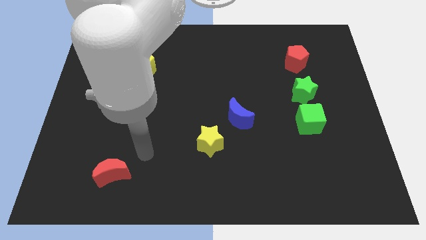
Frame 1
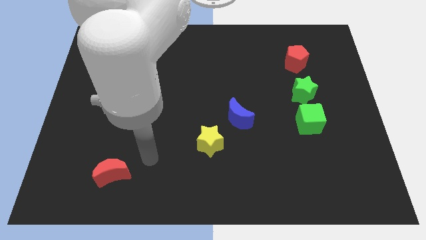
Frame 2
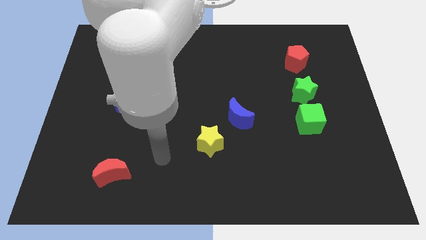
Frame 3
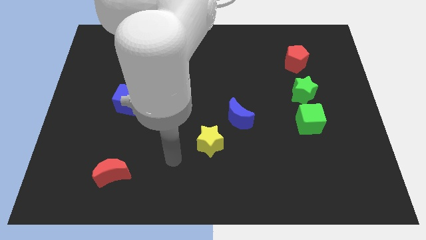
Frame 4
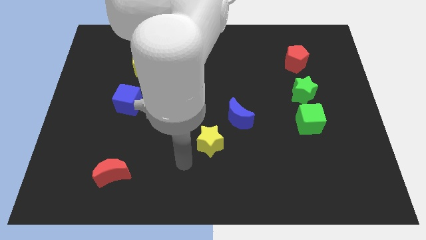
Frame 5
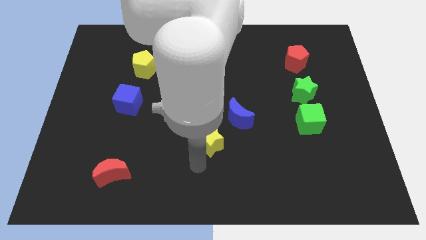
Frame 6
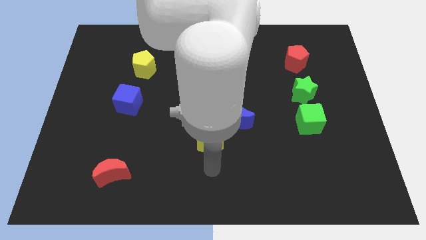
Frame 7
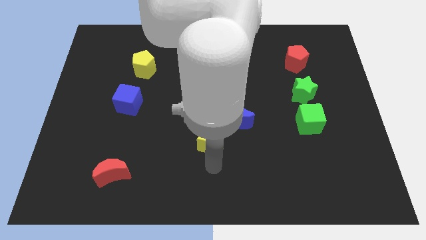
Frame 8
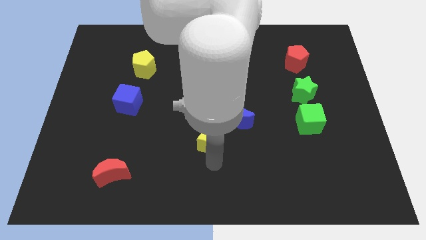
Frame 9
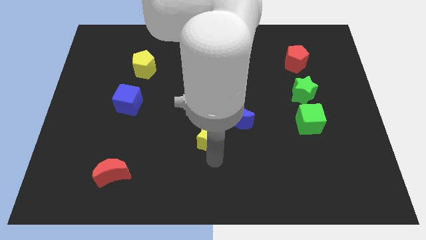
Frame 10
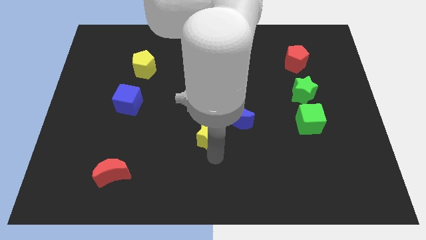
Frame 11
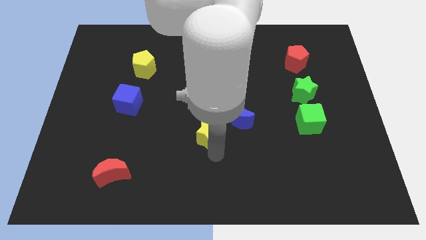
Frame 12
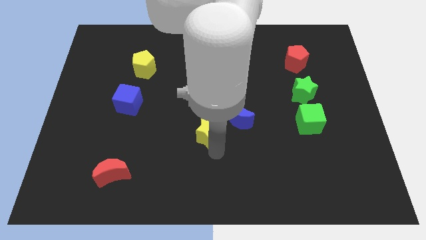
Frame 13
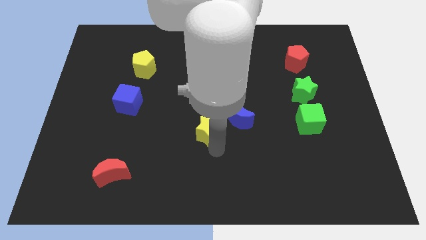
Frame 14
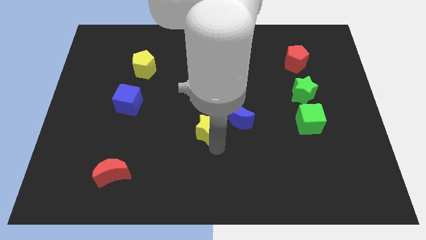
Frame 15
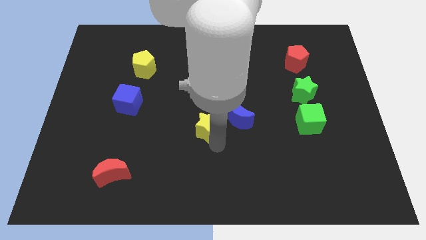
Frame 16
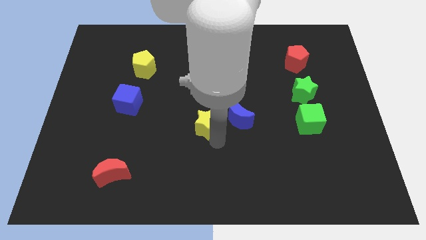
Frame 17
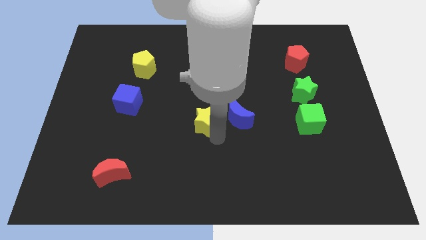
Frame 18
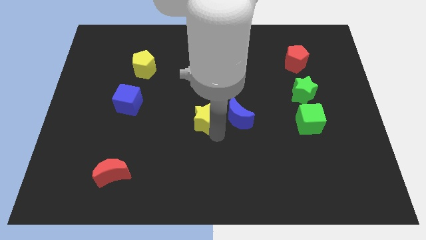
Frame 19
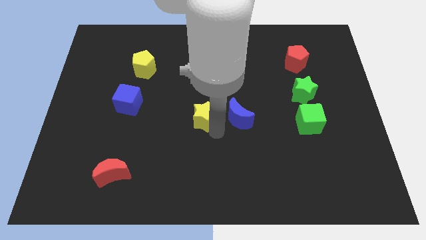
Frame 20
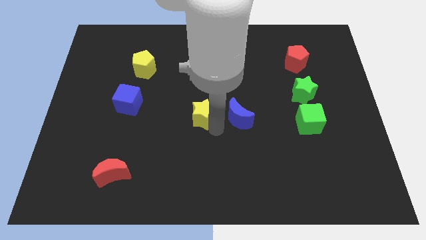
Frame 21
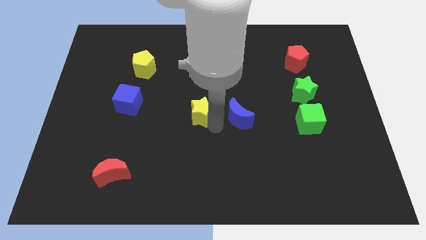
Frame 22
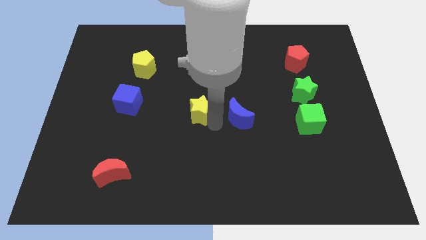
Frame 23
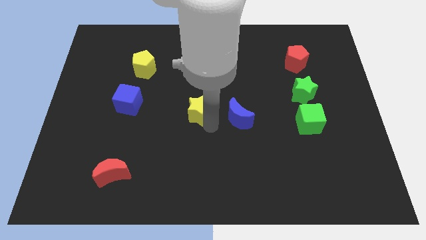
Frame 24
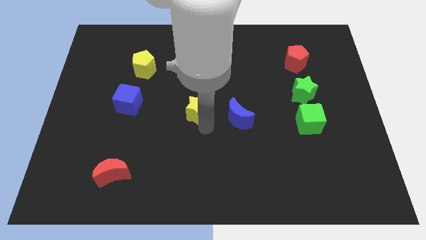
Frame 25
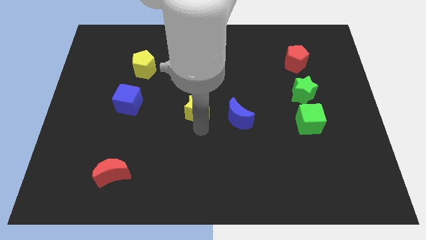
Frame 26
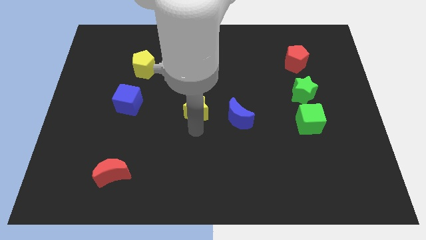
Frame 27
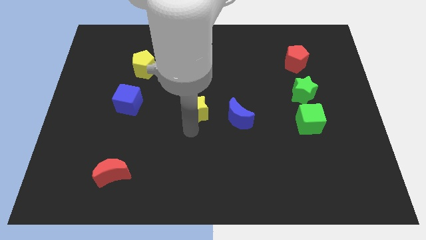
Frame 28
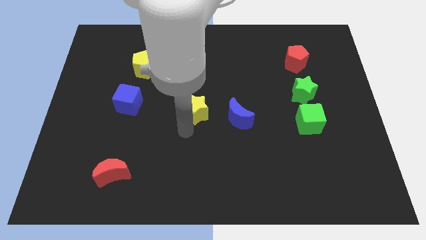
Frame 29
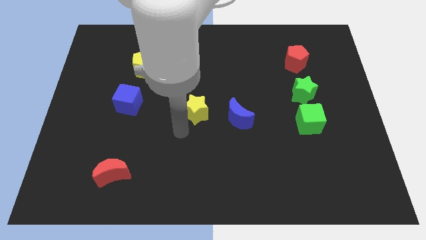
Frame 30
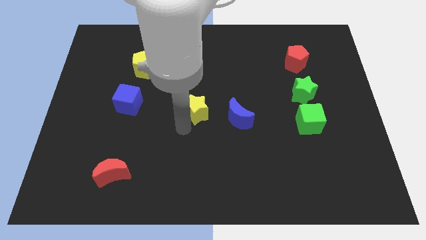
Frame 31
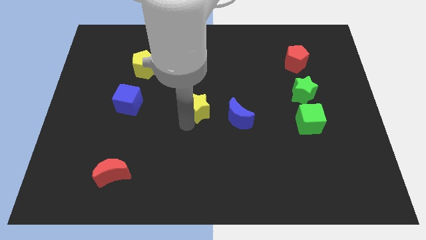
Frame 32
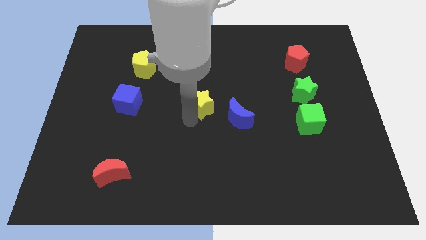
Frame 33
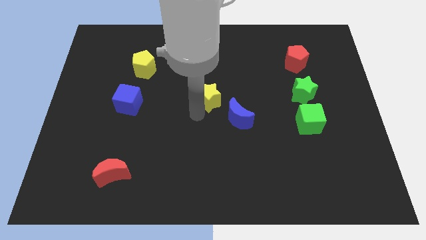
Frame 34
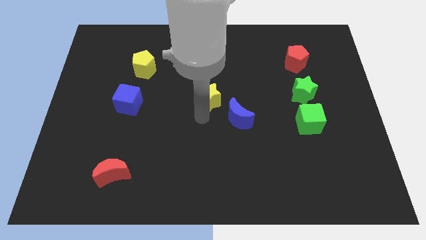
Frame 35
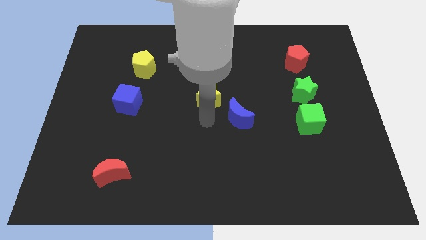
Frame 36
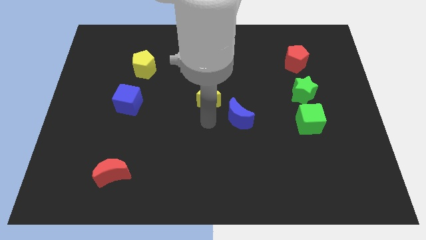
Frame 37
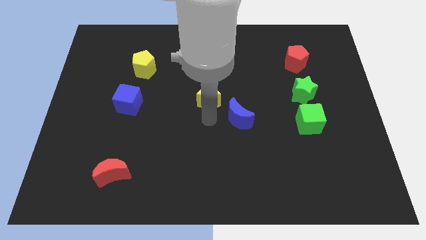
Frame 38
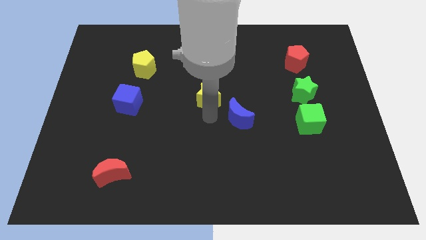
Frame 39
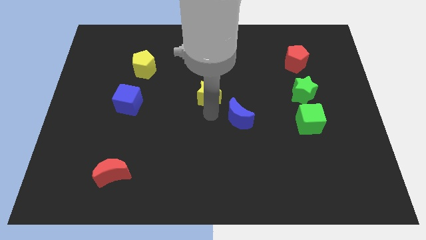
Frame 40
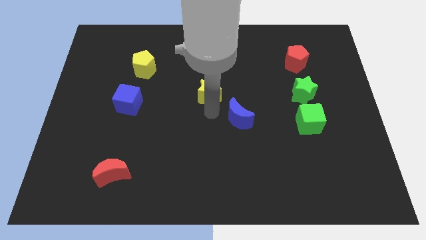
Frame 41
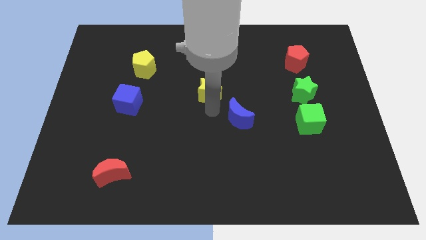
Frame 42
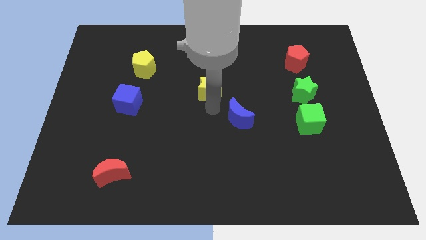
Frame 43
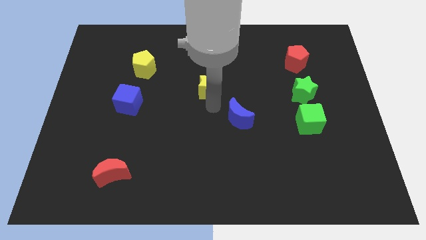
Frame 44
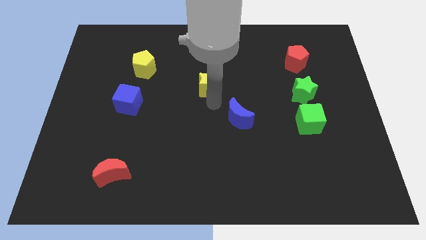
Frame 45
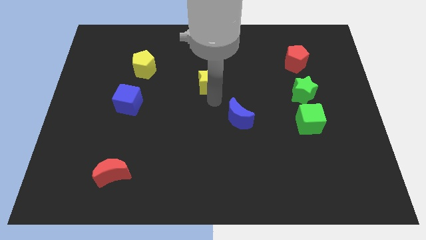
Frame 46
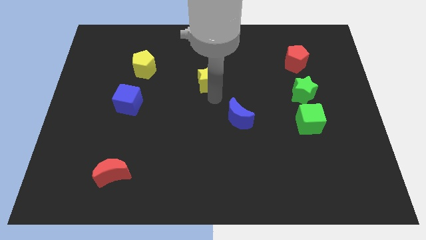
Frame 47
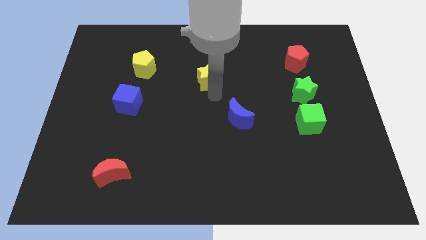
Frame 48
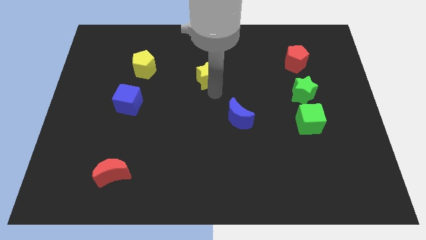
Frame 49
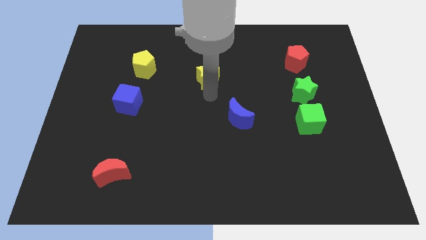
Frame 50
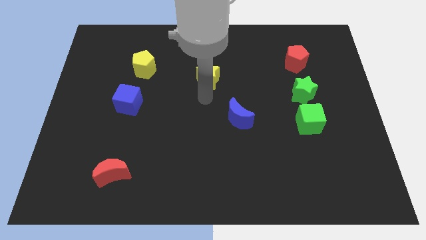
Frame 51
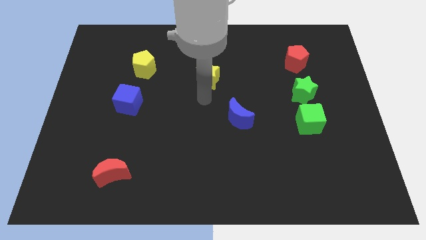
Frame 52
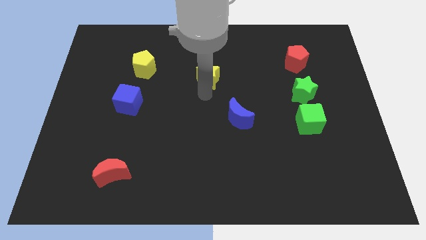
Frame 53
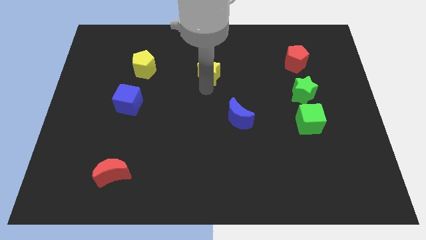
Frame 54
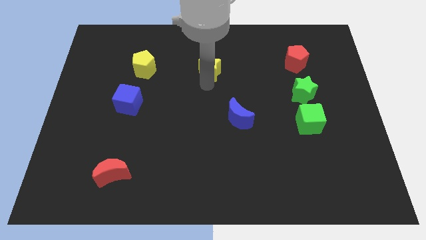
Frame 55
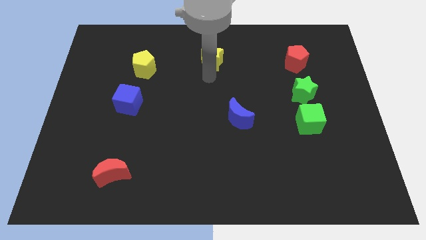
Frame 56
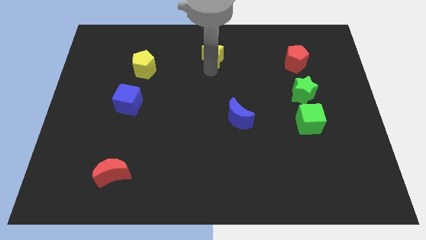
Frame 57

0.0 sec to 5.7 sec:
slide the yellow star to the top

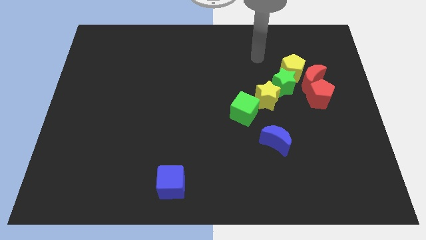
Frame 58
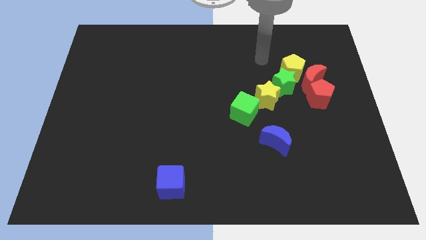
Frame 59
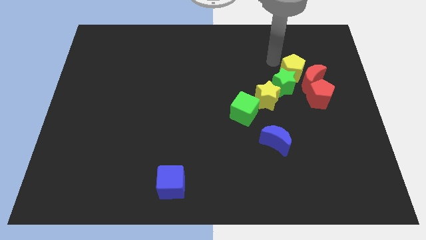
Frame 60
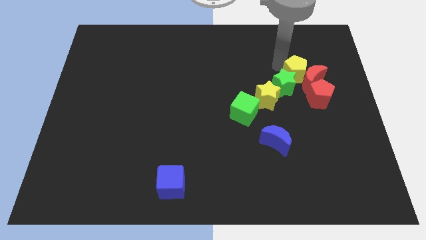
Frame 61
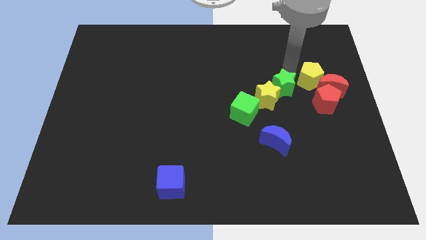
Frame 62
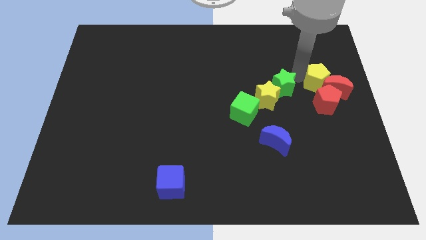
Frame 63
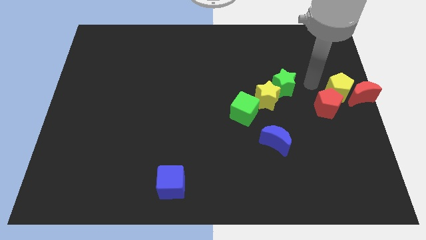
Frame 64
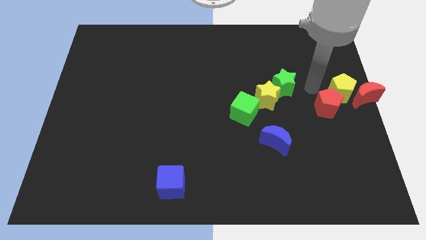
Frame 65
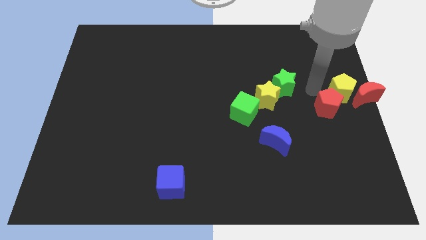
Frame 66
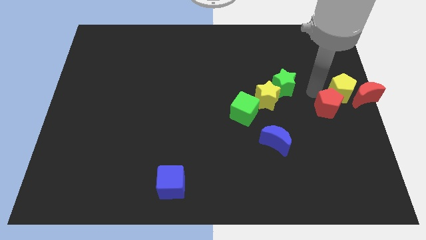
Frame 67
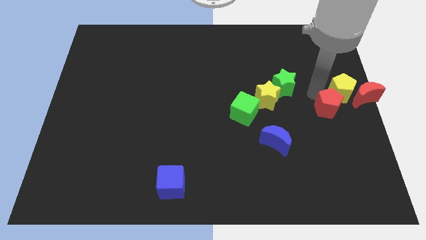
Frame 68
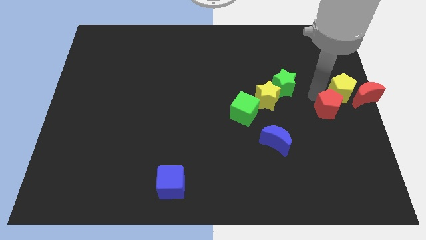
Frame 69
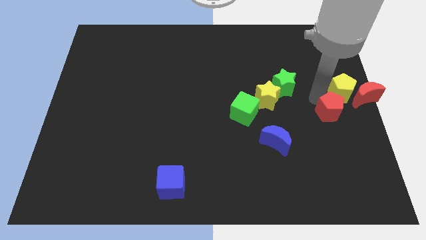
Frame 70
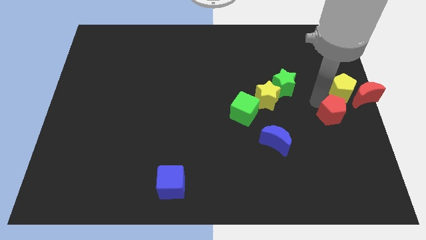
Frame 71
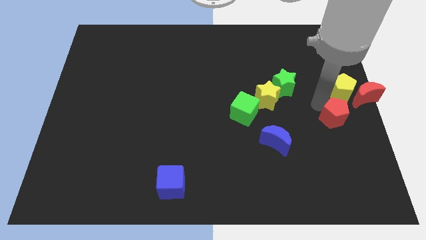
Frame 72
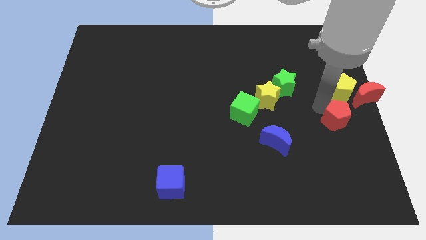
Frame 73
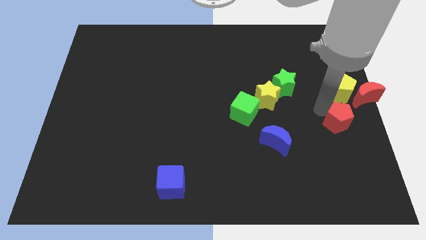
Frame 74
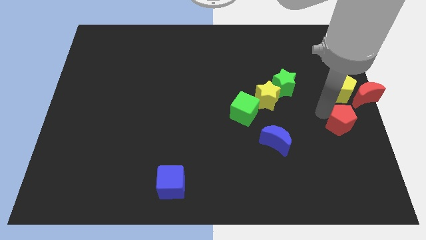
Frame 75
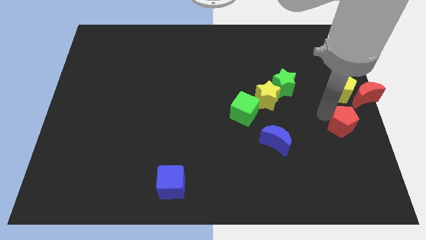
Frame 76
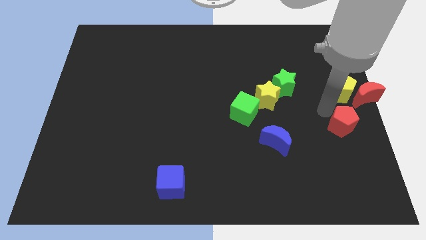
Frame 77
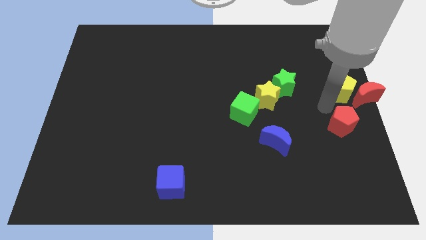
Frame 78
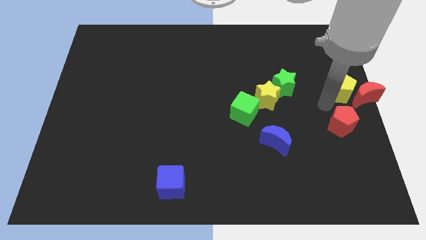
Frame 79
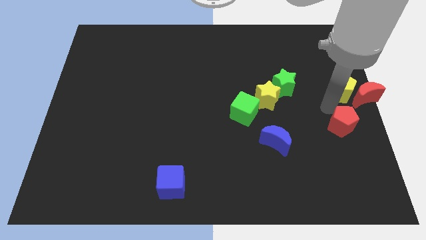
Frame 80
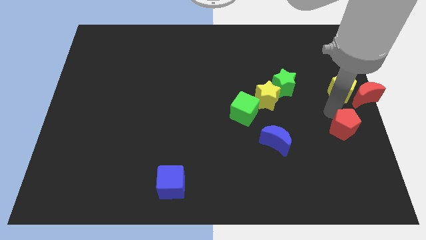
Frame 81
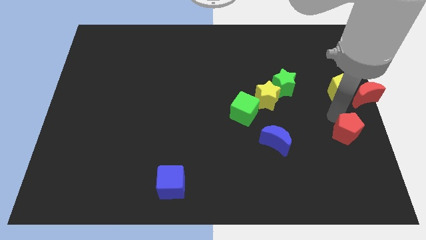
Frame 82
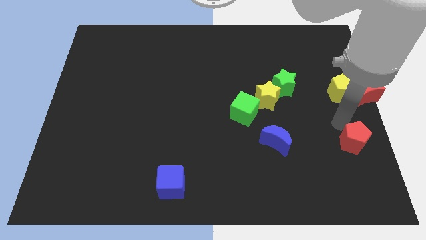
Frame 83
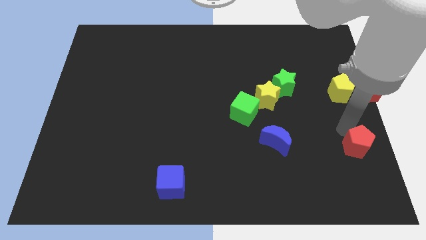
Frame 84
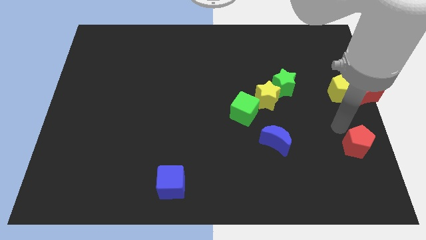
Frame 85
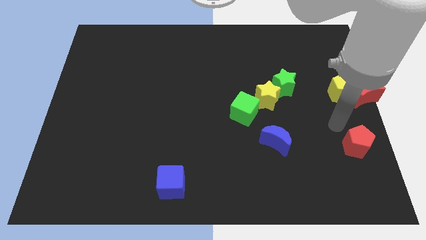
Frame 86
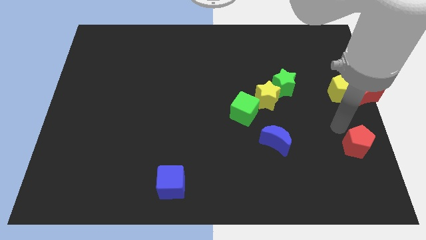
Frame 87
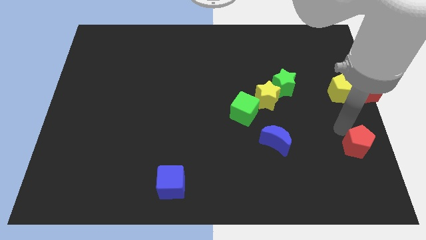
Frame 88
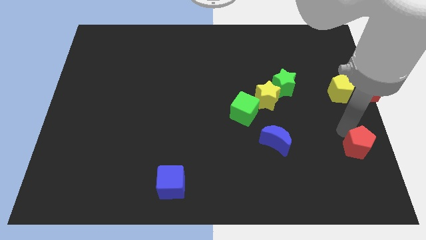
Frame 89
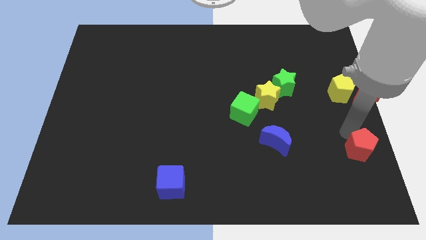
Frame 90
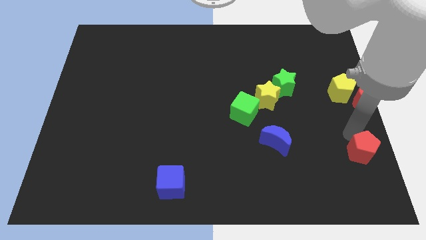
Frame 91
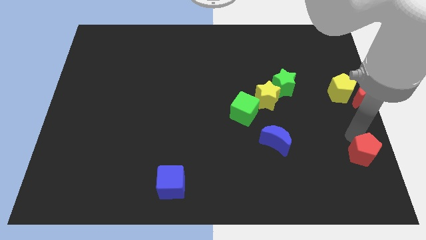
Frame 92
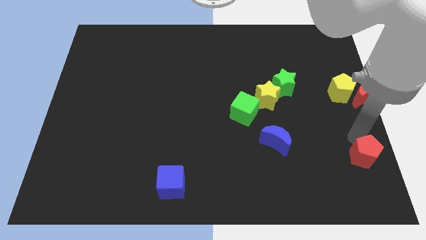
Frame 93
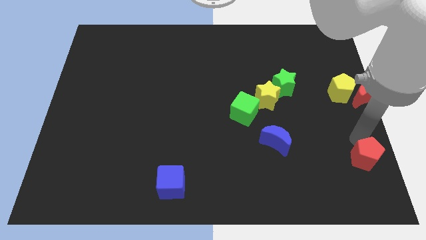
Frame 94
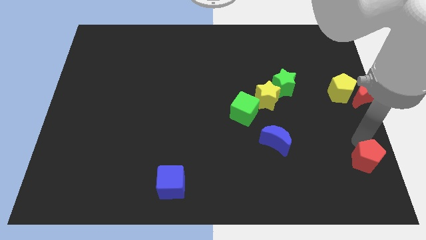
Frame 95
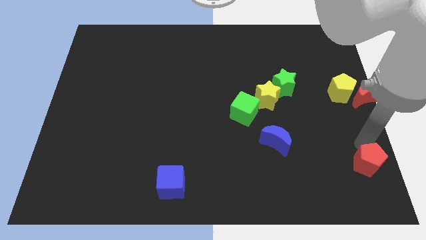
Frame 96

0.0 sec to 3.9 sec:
move the red pentagon to the bottom right
